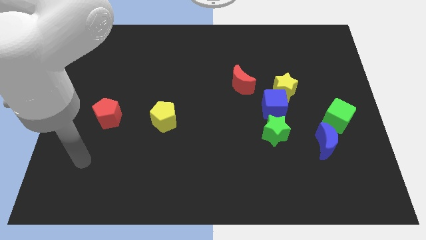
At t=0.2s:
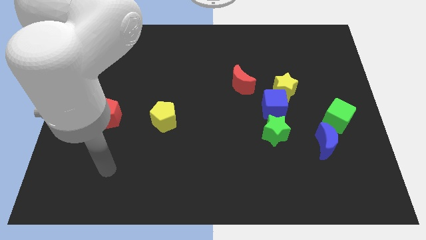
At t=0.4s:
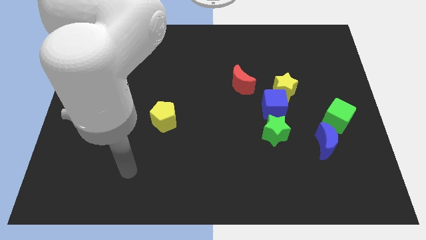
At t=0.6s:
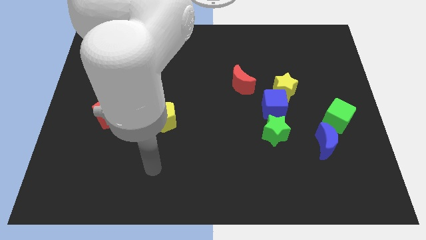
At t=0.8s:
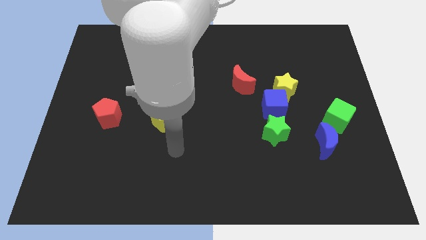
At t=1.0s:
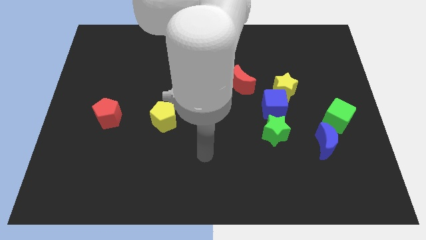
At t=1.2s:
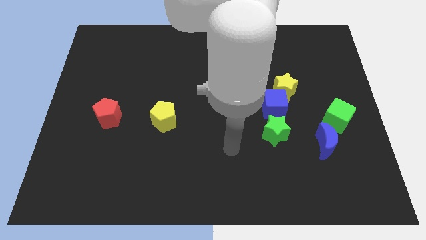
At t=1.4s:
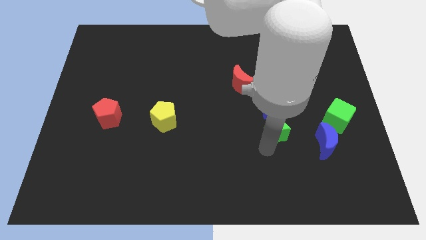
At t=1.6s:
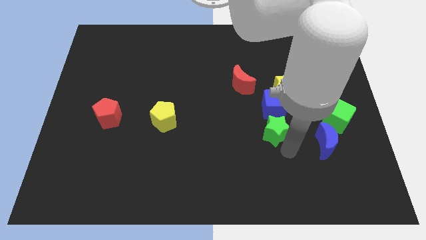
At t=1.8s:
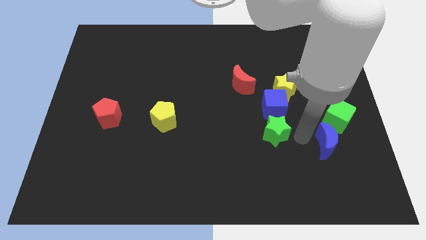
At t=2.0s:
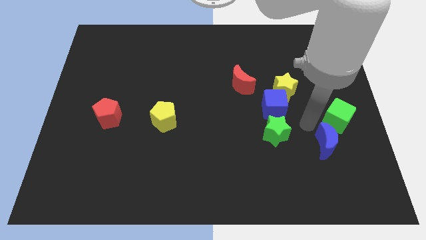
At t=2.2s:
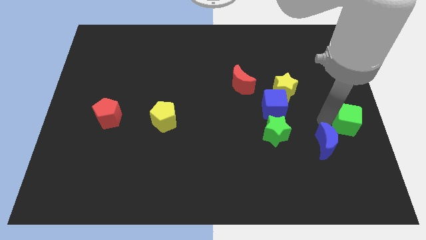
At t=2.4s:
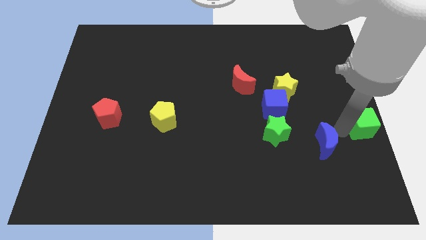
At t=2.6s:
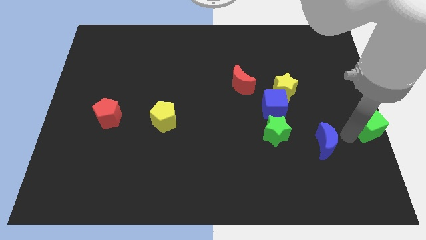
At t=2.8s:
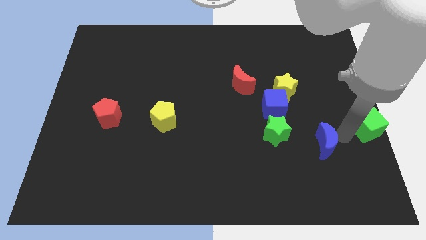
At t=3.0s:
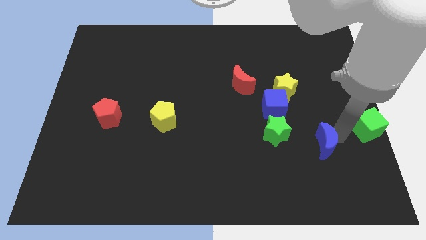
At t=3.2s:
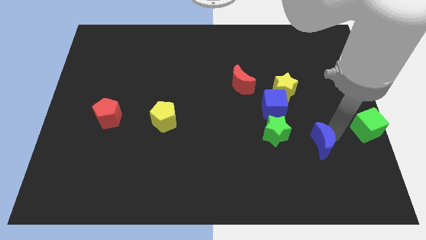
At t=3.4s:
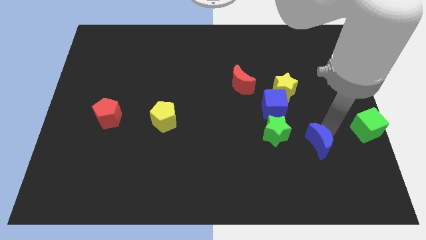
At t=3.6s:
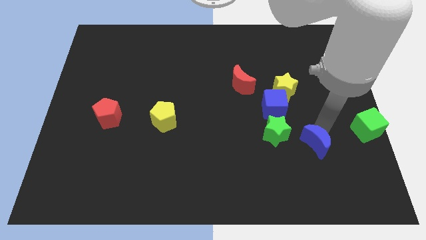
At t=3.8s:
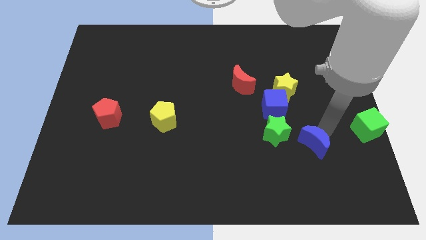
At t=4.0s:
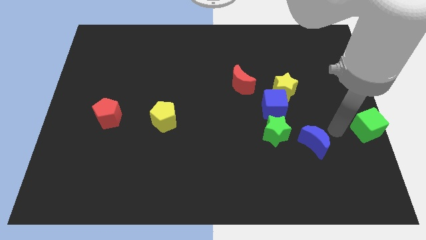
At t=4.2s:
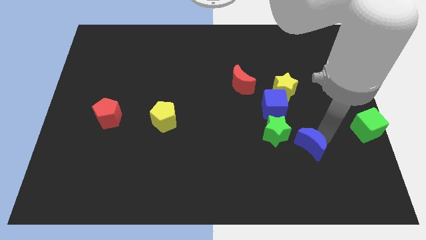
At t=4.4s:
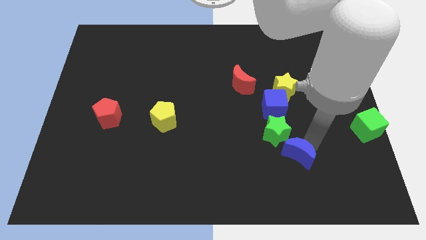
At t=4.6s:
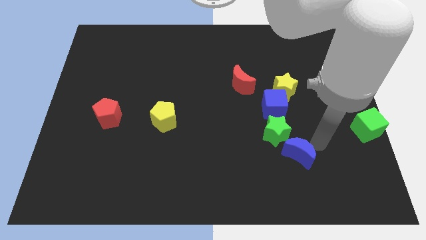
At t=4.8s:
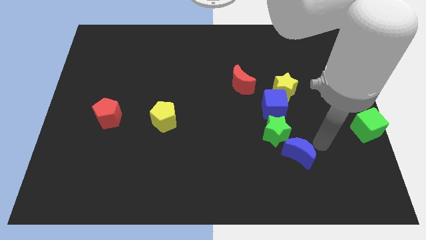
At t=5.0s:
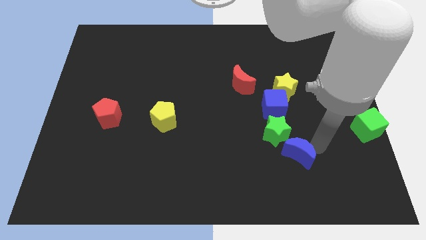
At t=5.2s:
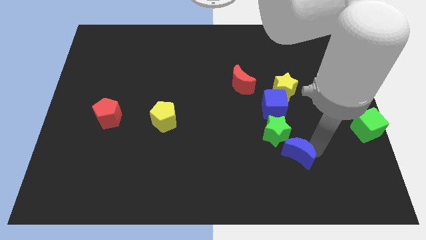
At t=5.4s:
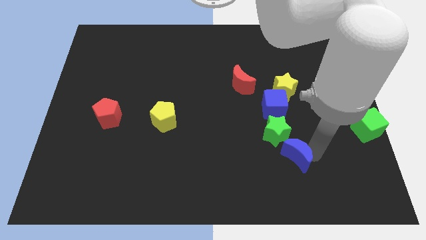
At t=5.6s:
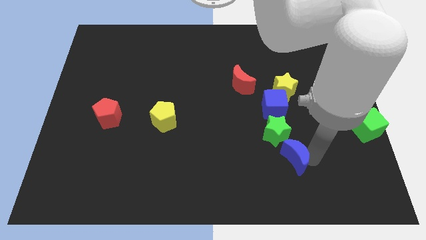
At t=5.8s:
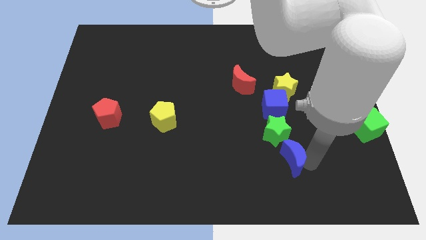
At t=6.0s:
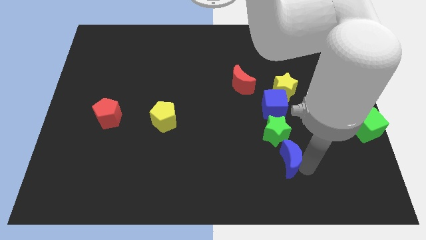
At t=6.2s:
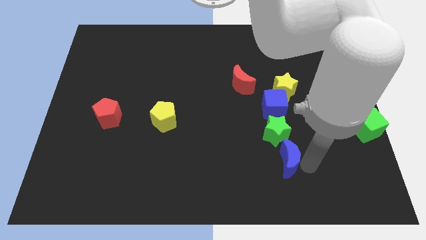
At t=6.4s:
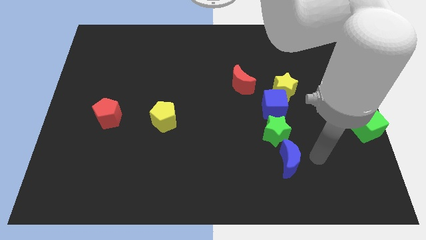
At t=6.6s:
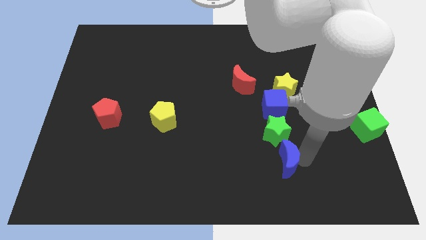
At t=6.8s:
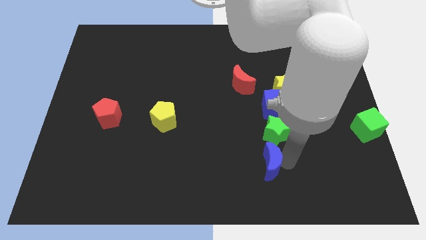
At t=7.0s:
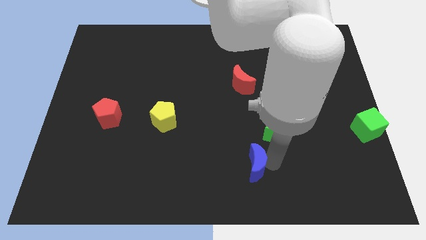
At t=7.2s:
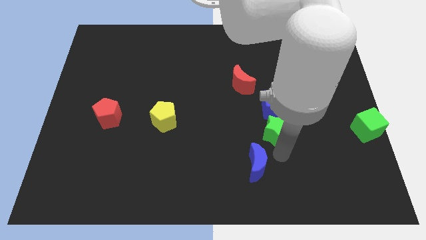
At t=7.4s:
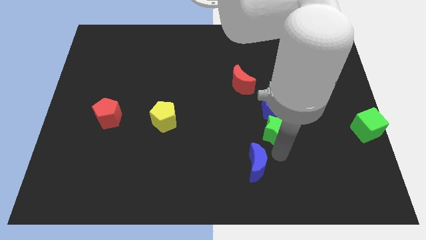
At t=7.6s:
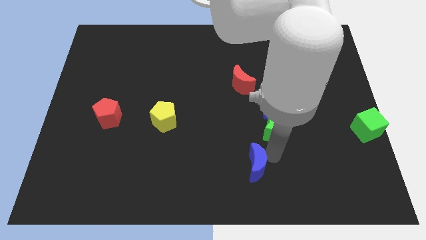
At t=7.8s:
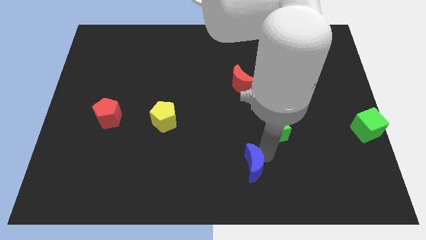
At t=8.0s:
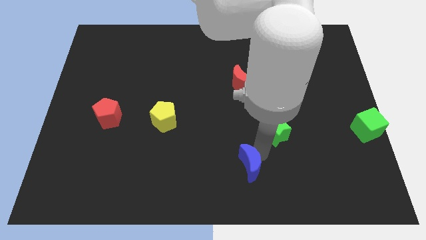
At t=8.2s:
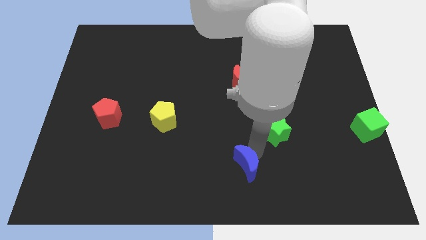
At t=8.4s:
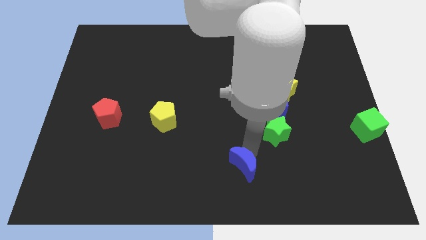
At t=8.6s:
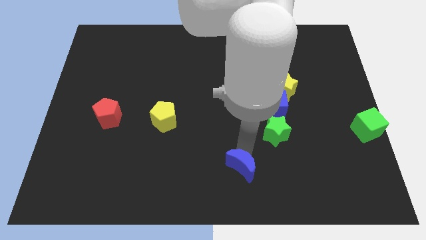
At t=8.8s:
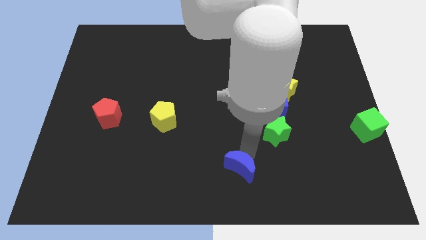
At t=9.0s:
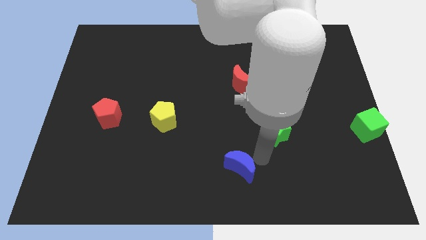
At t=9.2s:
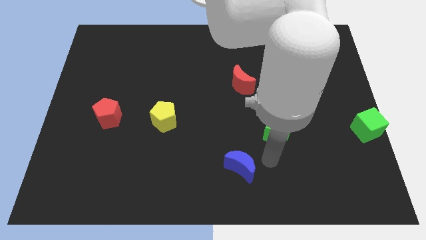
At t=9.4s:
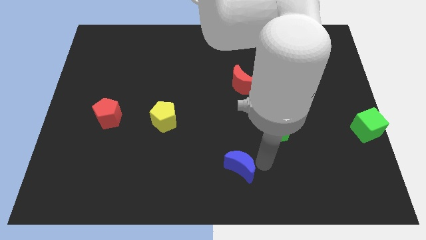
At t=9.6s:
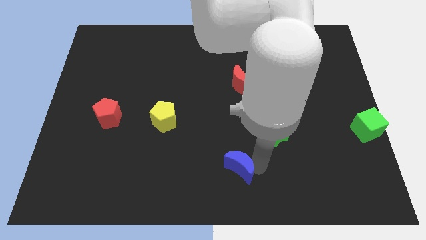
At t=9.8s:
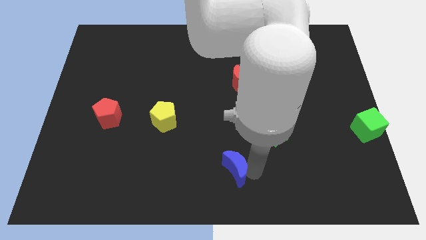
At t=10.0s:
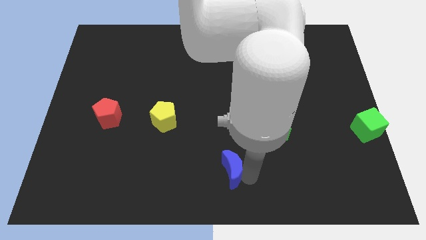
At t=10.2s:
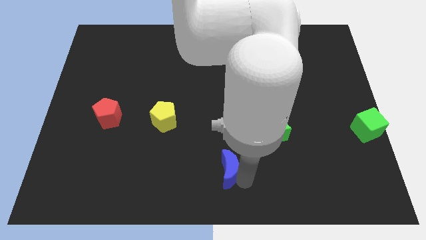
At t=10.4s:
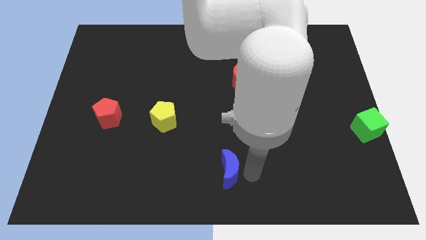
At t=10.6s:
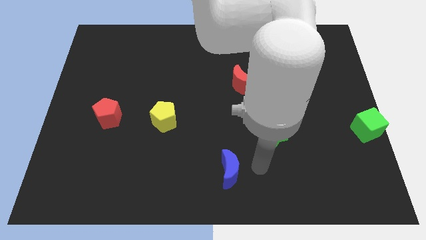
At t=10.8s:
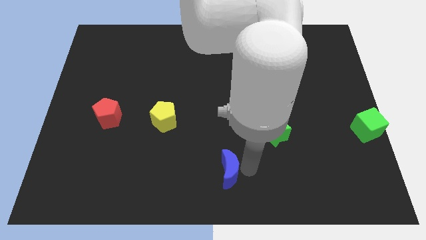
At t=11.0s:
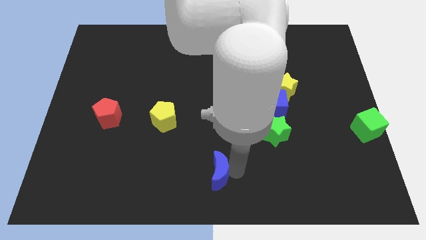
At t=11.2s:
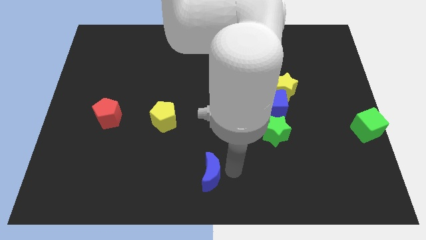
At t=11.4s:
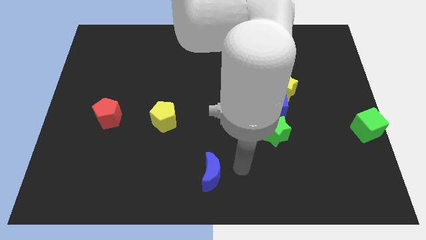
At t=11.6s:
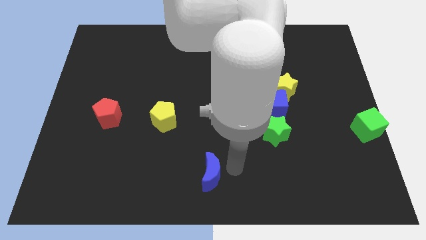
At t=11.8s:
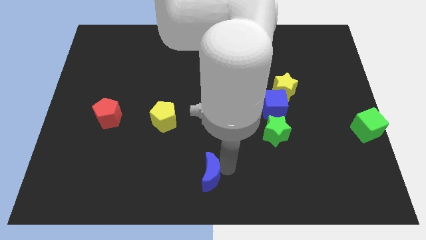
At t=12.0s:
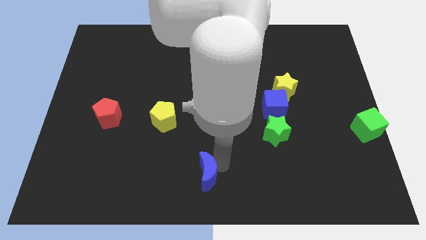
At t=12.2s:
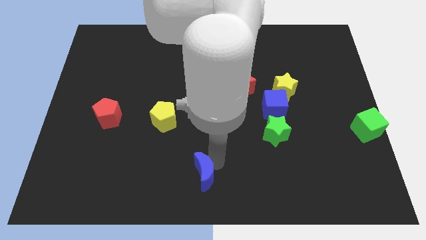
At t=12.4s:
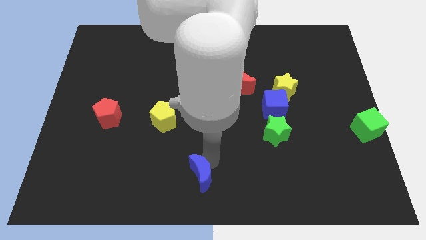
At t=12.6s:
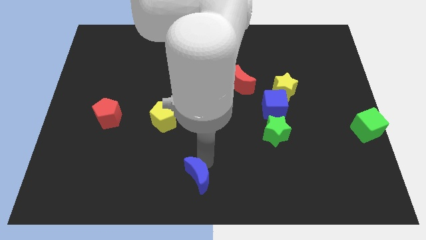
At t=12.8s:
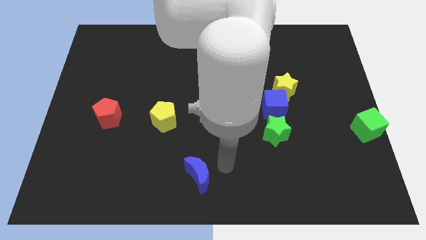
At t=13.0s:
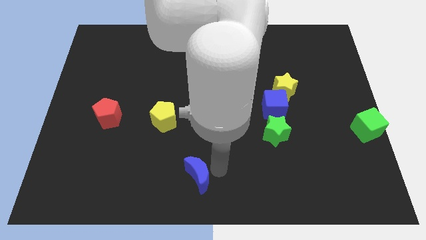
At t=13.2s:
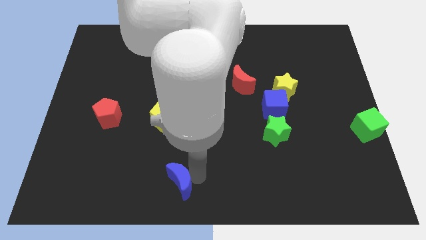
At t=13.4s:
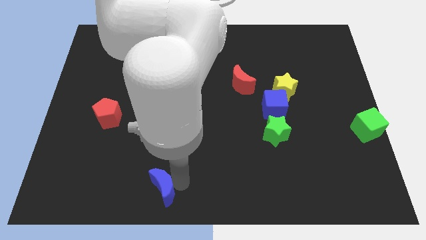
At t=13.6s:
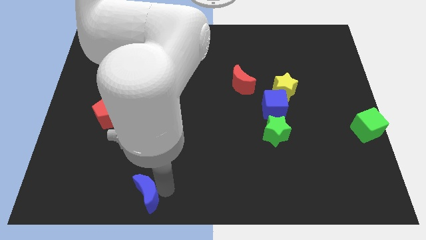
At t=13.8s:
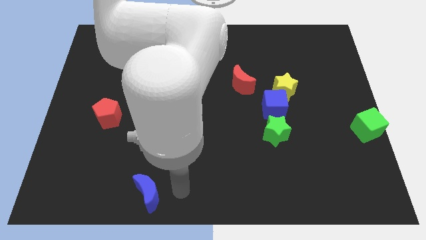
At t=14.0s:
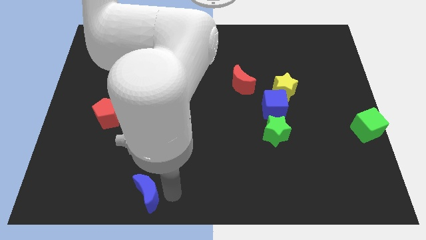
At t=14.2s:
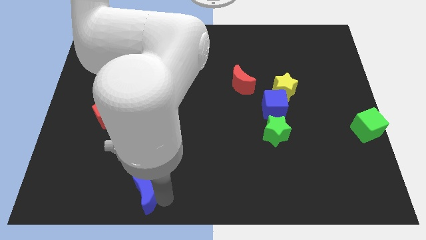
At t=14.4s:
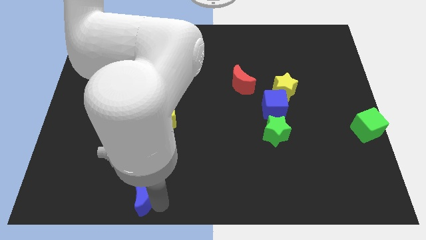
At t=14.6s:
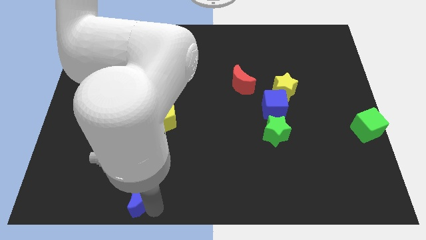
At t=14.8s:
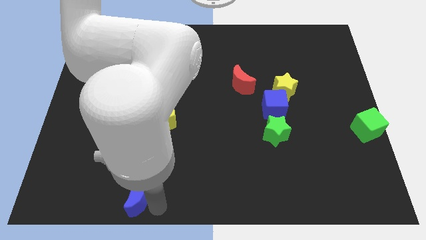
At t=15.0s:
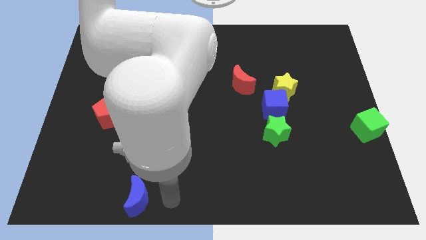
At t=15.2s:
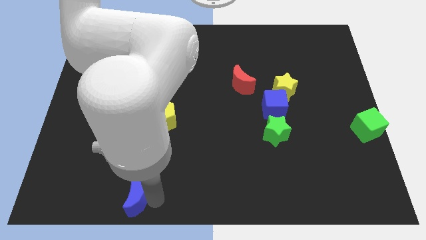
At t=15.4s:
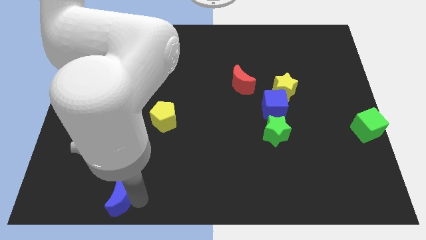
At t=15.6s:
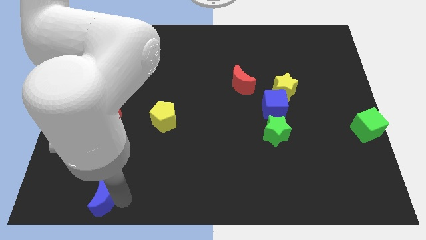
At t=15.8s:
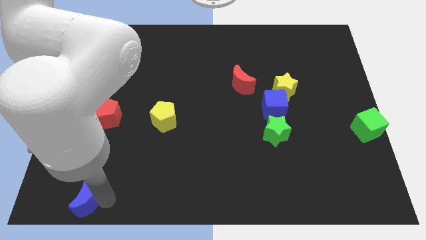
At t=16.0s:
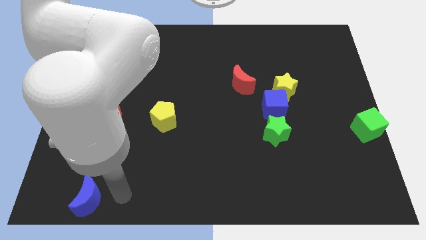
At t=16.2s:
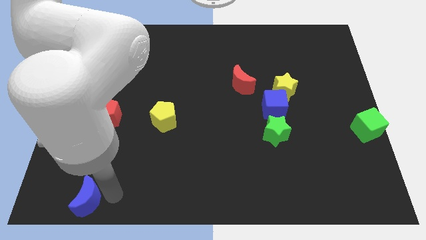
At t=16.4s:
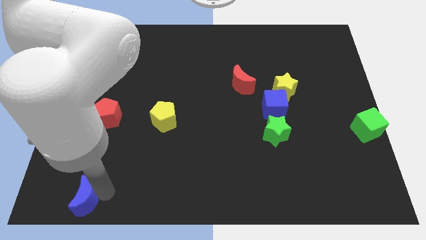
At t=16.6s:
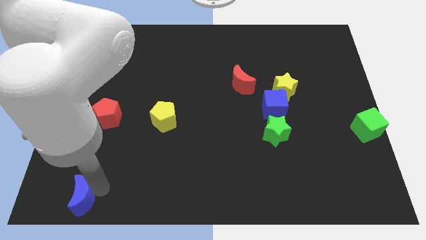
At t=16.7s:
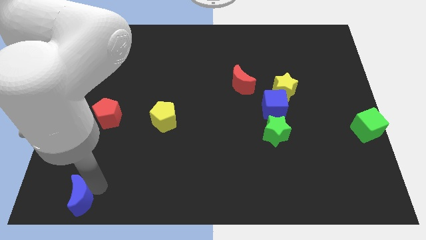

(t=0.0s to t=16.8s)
put the blue moon to the lower left corner
